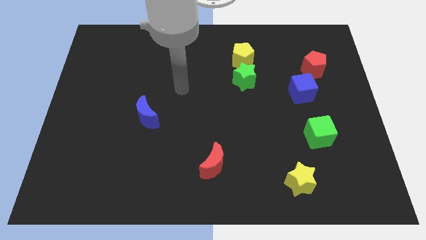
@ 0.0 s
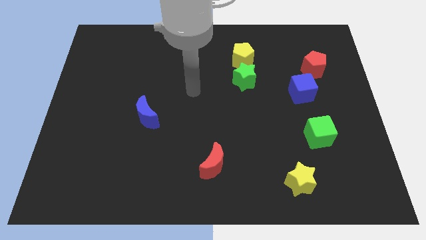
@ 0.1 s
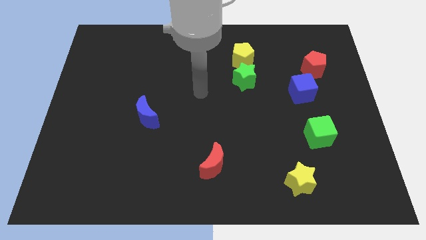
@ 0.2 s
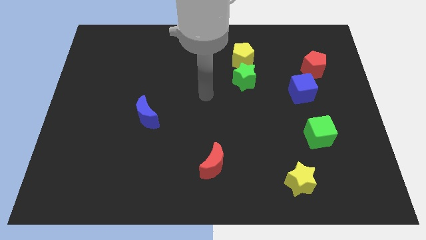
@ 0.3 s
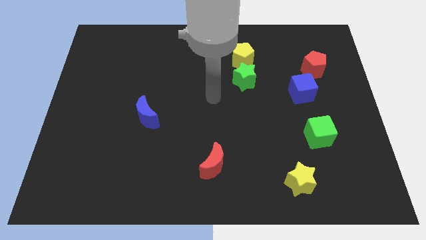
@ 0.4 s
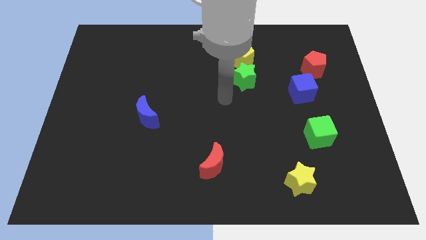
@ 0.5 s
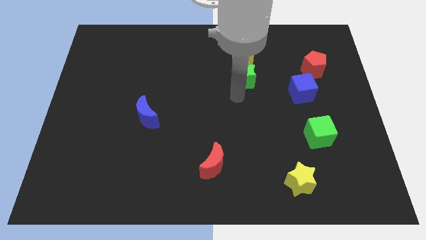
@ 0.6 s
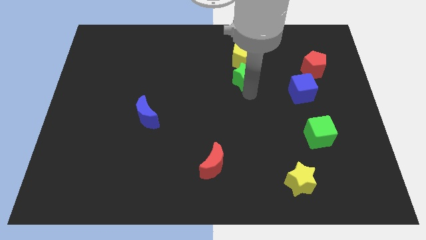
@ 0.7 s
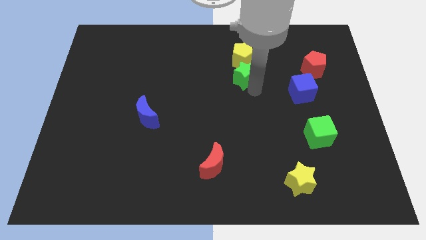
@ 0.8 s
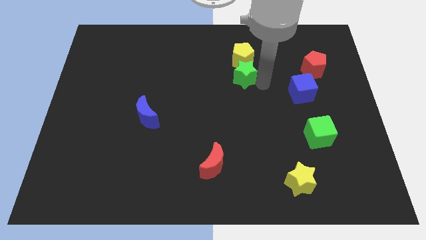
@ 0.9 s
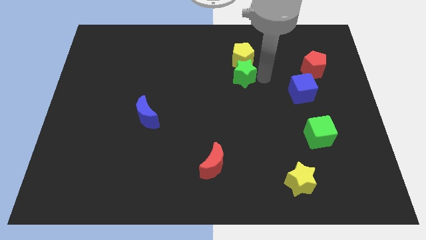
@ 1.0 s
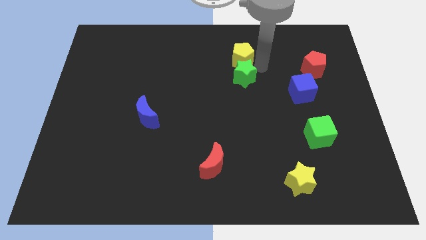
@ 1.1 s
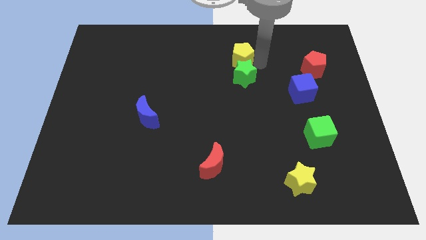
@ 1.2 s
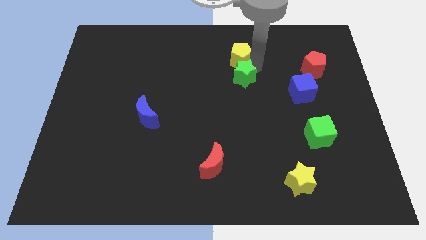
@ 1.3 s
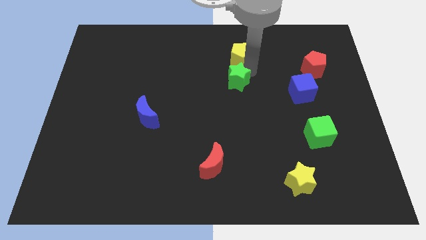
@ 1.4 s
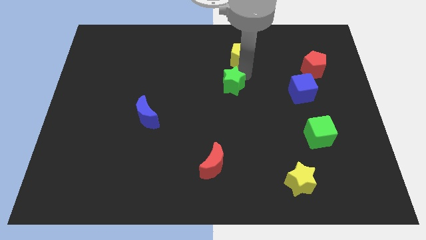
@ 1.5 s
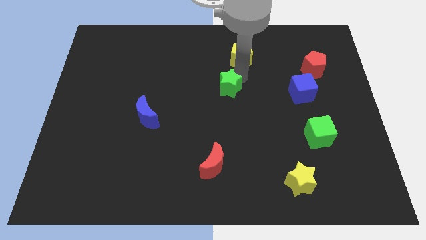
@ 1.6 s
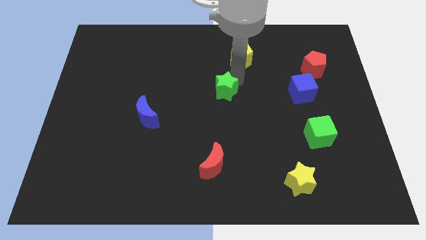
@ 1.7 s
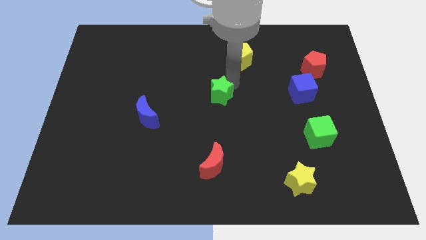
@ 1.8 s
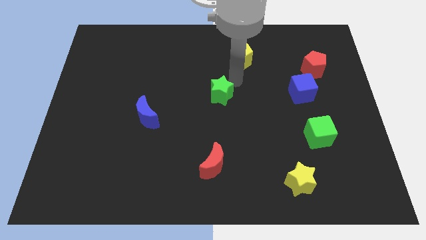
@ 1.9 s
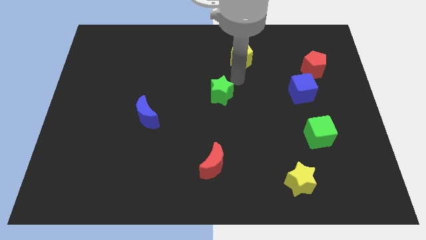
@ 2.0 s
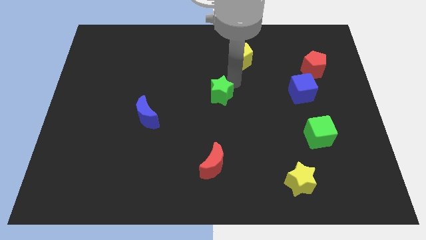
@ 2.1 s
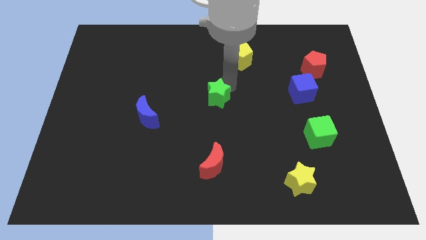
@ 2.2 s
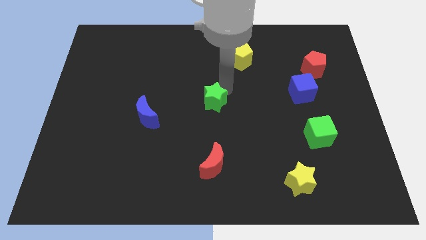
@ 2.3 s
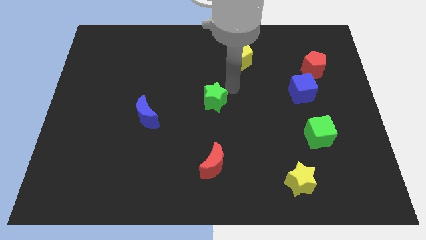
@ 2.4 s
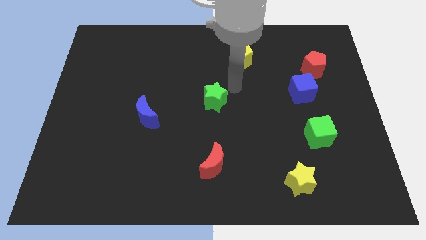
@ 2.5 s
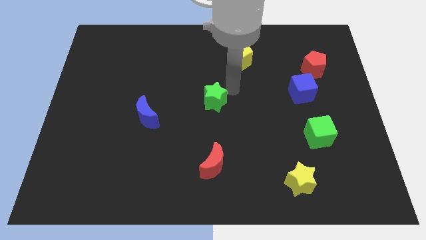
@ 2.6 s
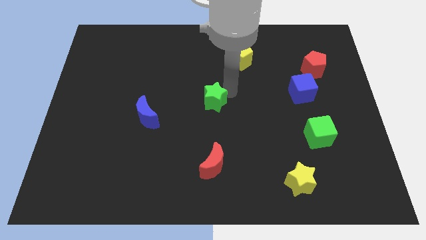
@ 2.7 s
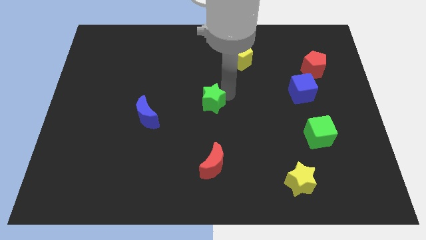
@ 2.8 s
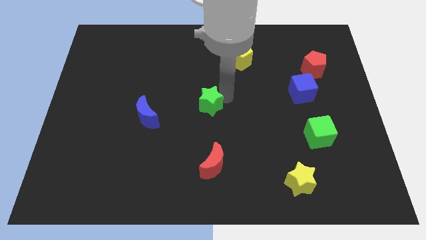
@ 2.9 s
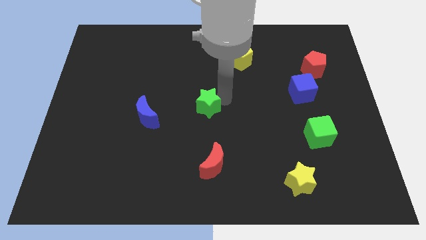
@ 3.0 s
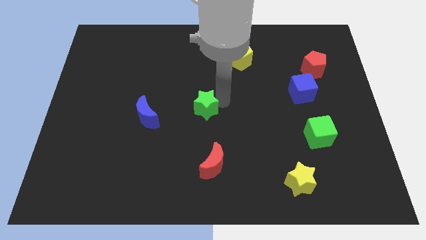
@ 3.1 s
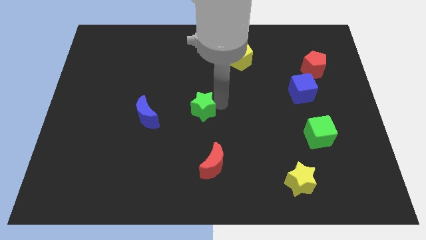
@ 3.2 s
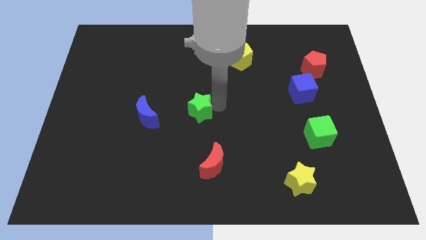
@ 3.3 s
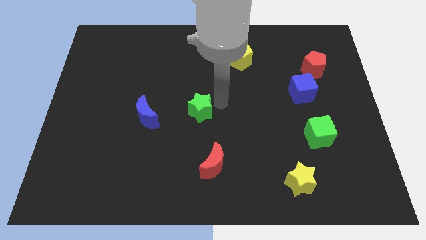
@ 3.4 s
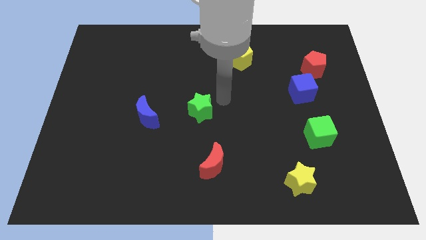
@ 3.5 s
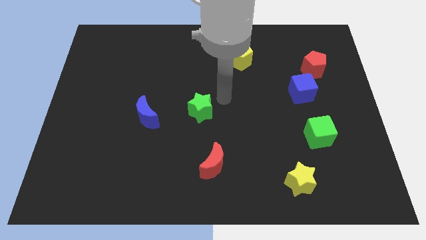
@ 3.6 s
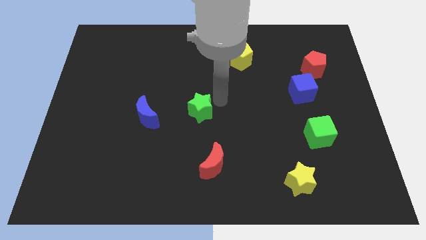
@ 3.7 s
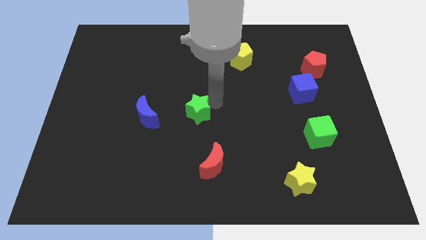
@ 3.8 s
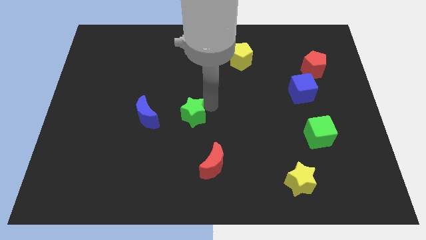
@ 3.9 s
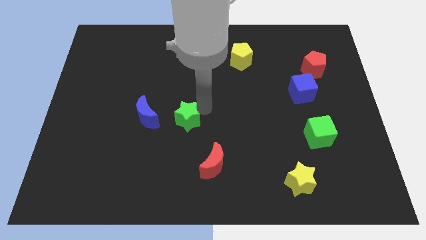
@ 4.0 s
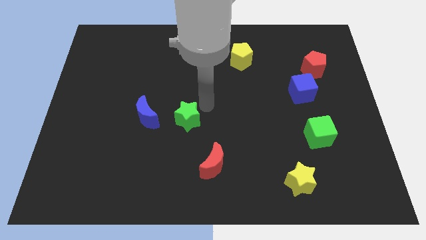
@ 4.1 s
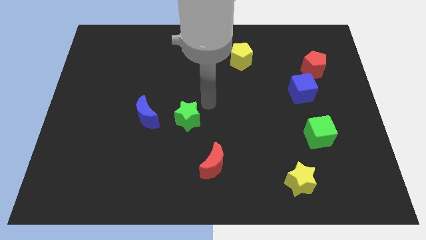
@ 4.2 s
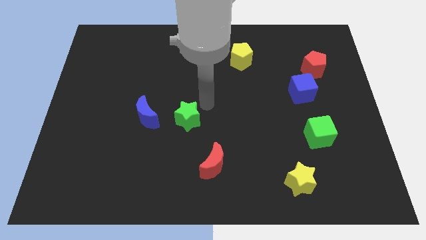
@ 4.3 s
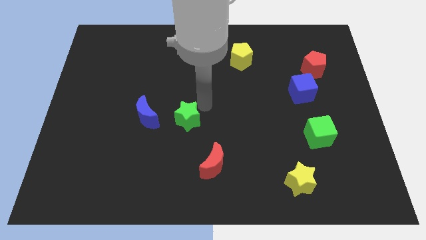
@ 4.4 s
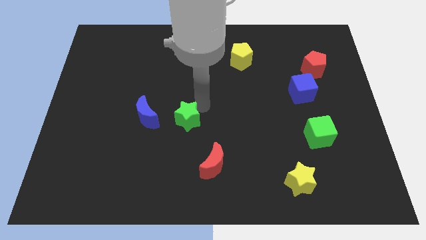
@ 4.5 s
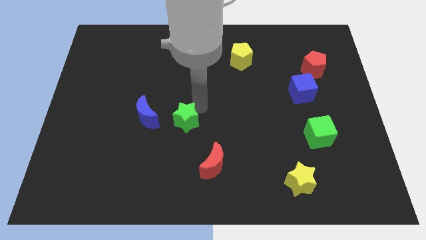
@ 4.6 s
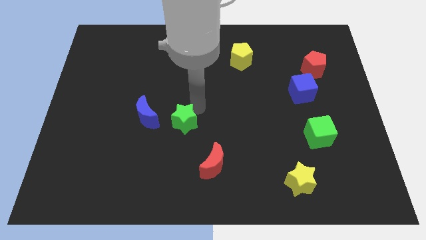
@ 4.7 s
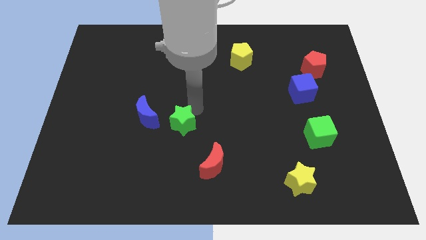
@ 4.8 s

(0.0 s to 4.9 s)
move the green star downwards and then left

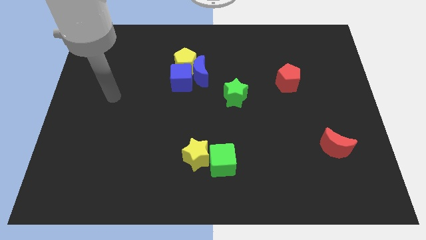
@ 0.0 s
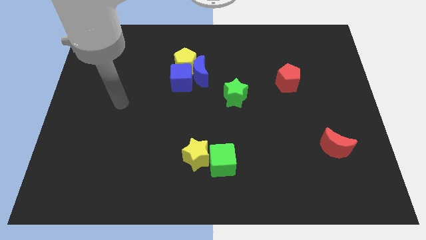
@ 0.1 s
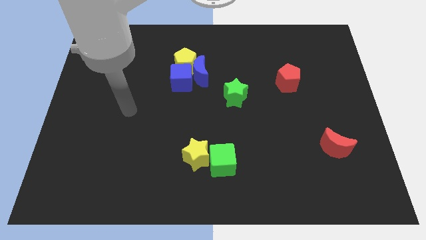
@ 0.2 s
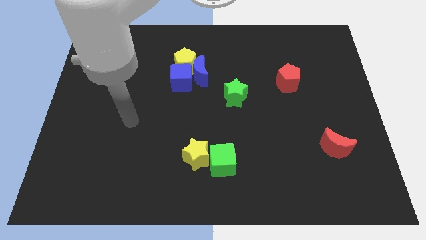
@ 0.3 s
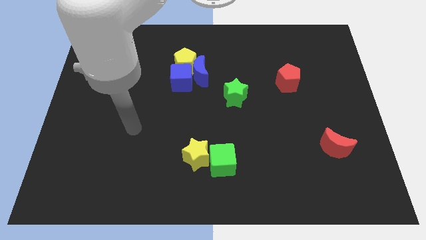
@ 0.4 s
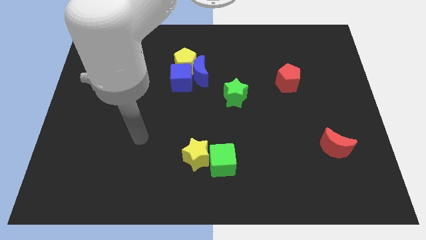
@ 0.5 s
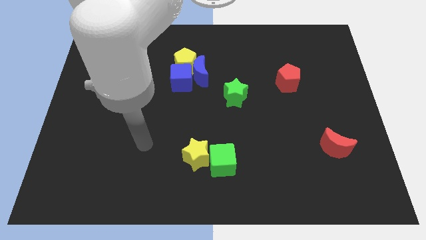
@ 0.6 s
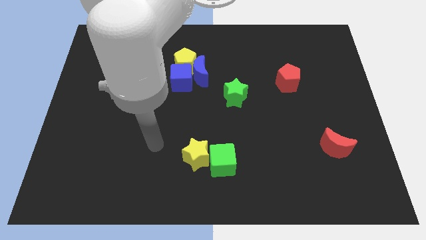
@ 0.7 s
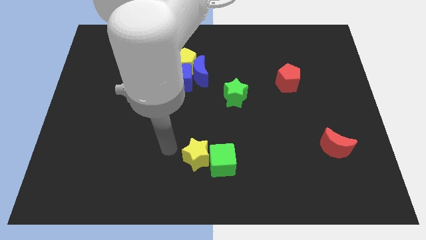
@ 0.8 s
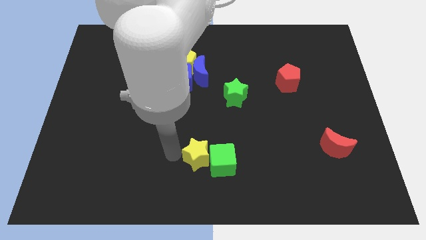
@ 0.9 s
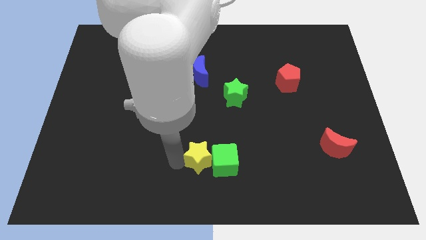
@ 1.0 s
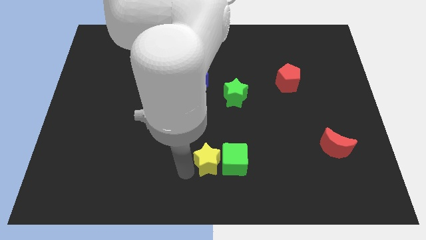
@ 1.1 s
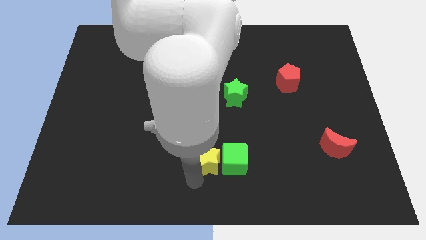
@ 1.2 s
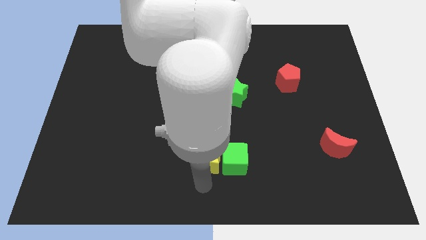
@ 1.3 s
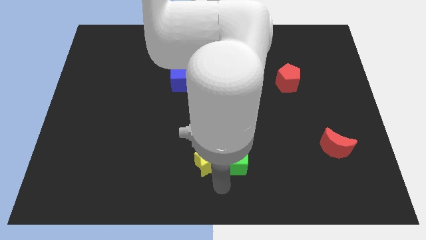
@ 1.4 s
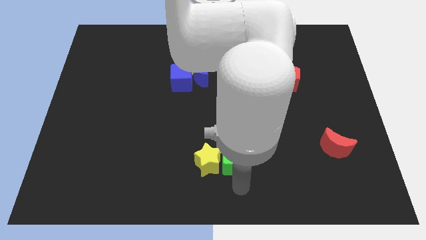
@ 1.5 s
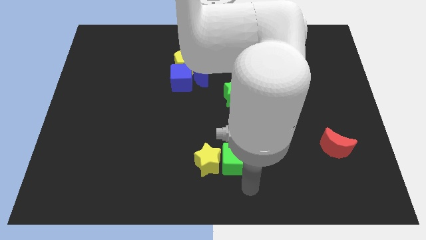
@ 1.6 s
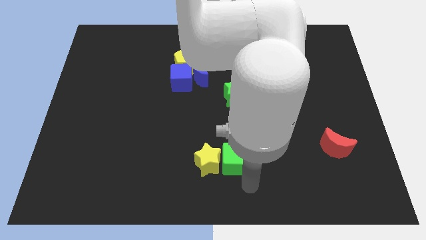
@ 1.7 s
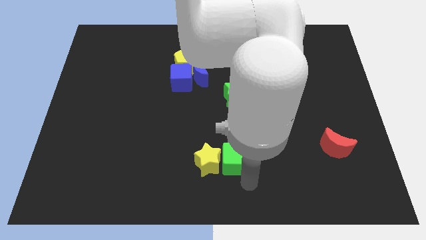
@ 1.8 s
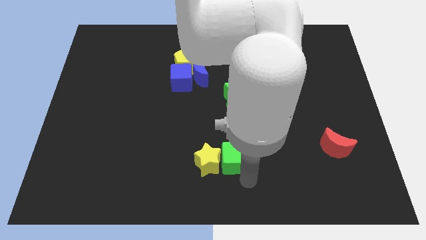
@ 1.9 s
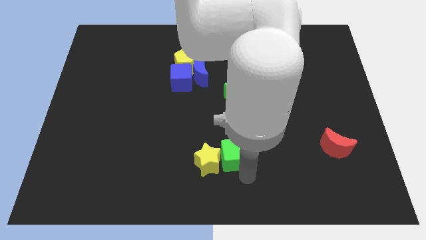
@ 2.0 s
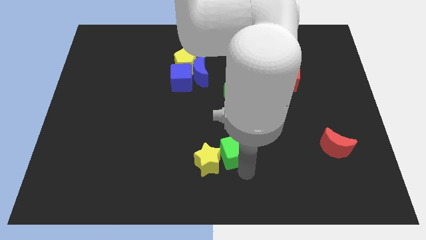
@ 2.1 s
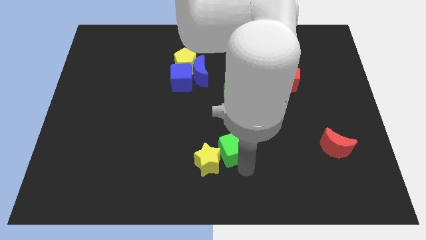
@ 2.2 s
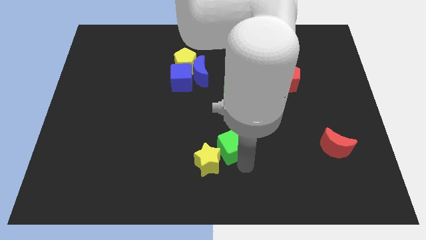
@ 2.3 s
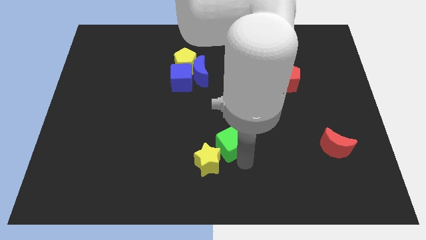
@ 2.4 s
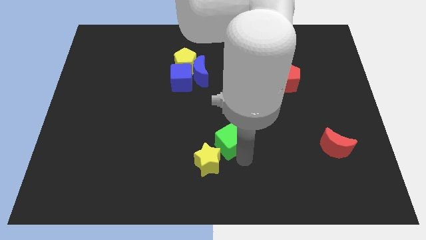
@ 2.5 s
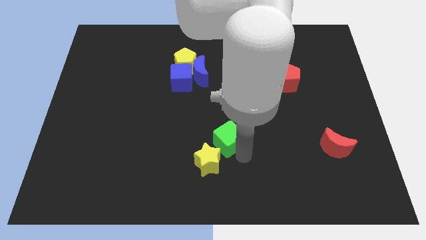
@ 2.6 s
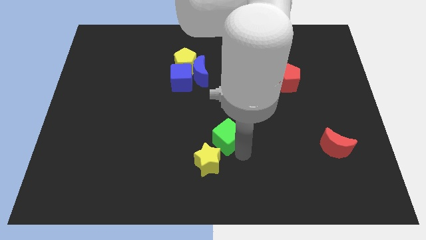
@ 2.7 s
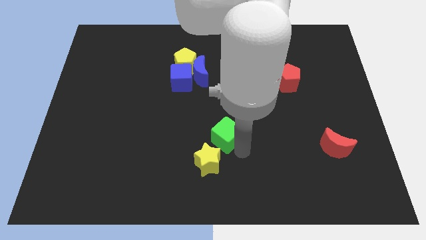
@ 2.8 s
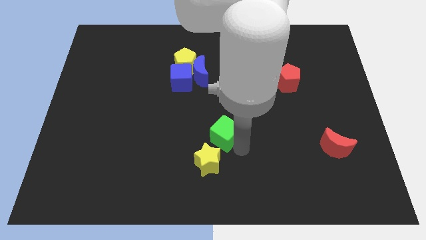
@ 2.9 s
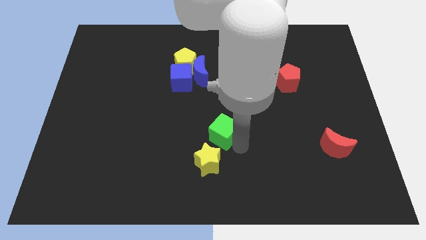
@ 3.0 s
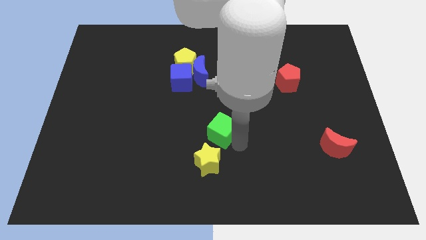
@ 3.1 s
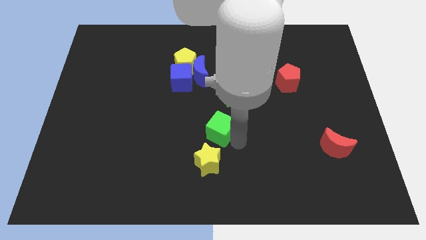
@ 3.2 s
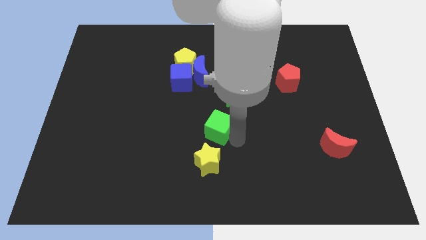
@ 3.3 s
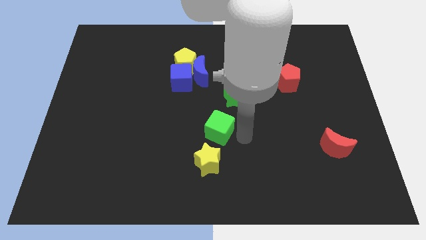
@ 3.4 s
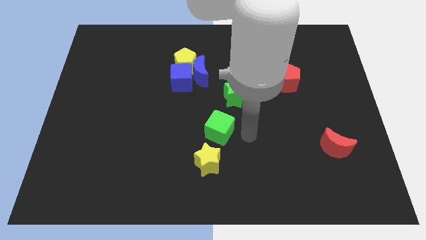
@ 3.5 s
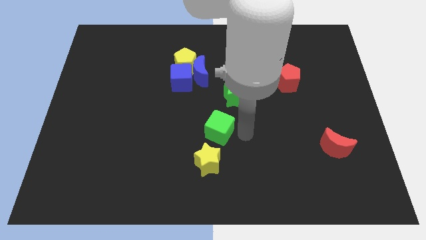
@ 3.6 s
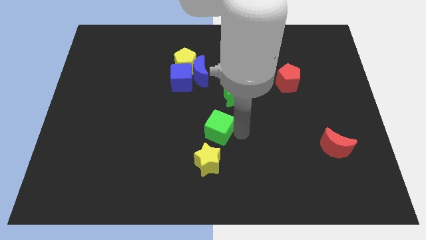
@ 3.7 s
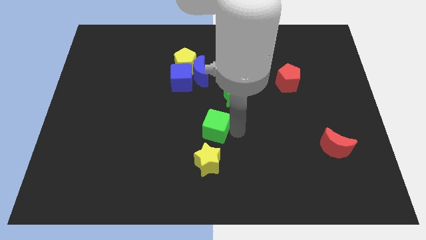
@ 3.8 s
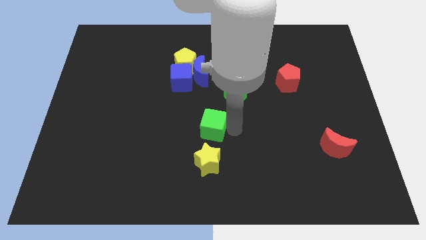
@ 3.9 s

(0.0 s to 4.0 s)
slightly push the green cube upwards and then left
